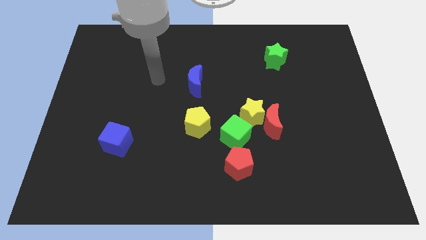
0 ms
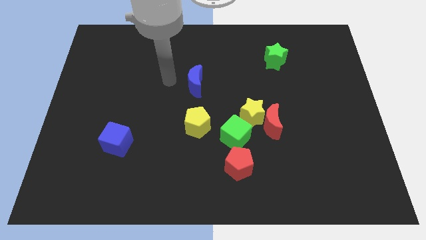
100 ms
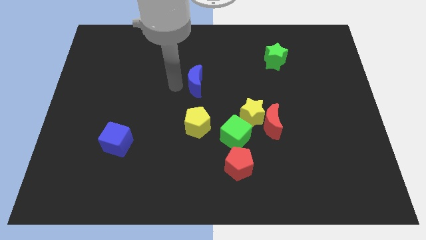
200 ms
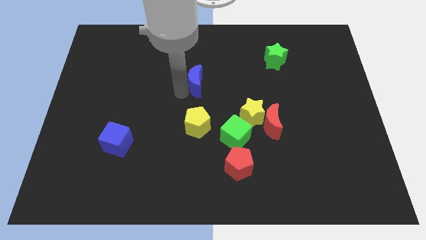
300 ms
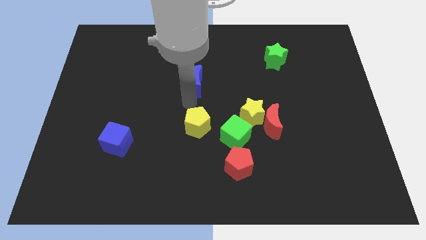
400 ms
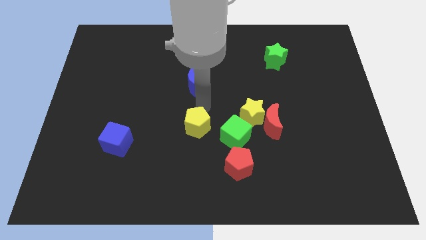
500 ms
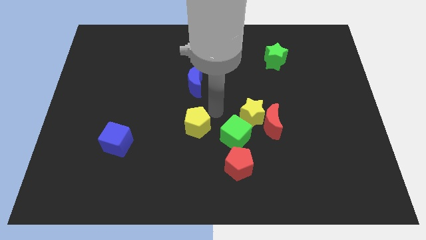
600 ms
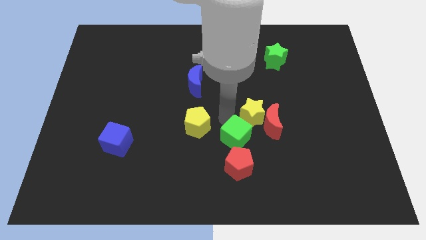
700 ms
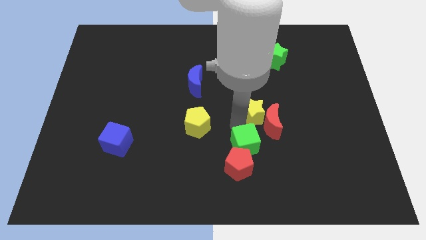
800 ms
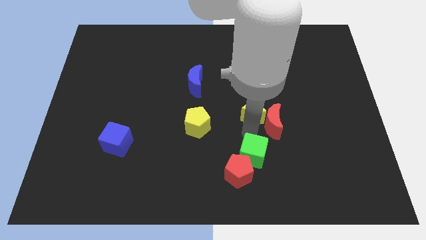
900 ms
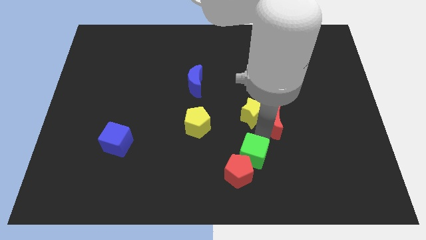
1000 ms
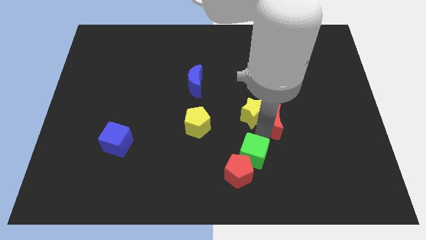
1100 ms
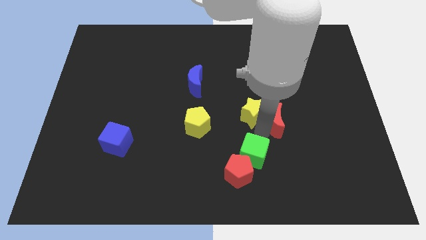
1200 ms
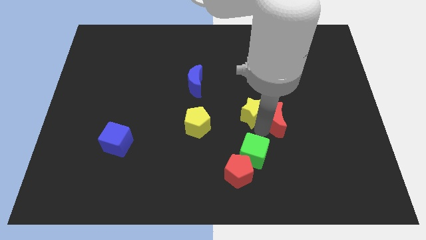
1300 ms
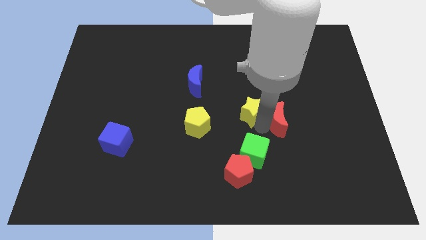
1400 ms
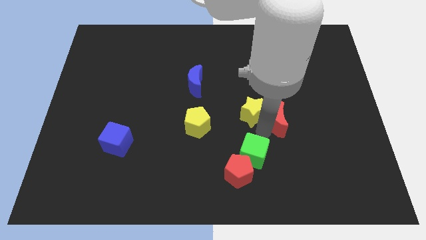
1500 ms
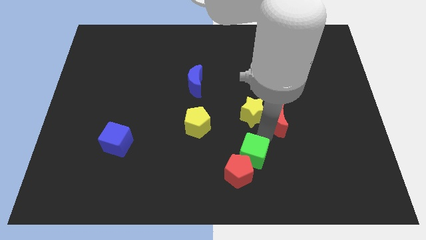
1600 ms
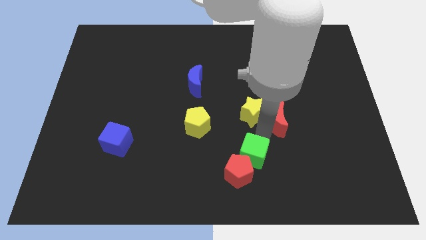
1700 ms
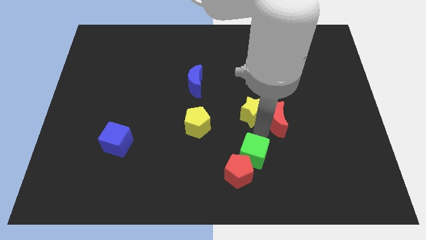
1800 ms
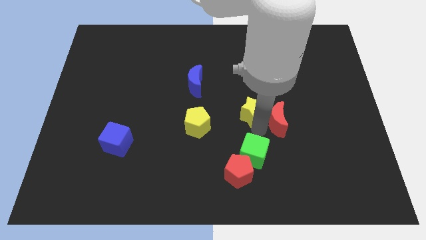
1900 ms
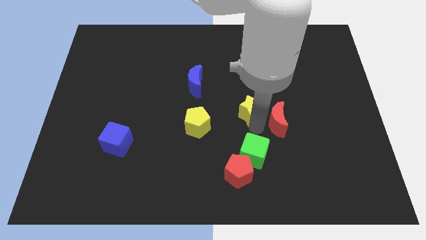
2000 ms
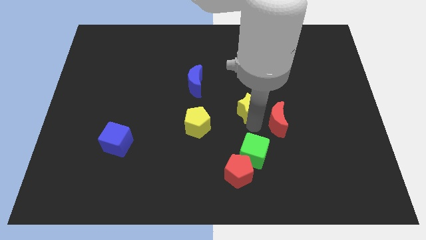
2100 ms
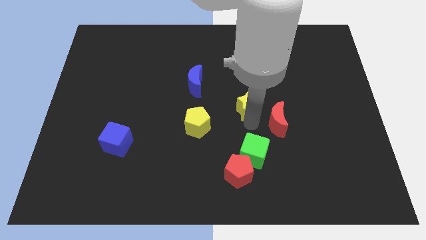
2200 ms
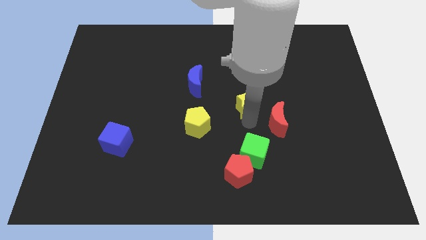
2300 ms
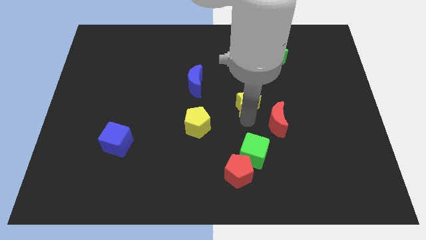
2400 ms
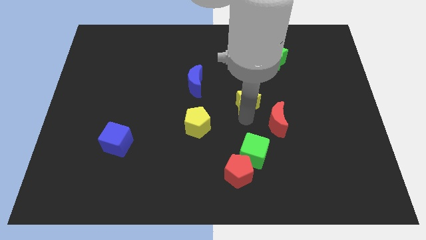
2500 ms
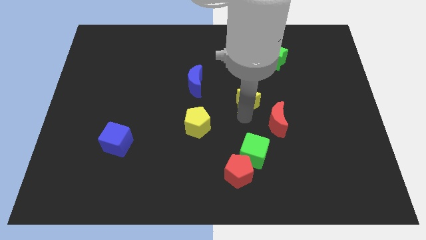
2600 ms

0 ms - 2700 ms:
move the yellow star away from the red moon and green cube

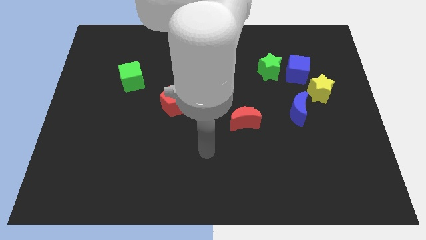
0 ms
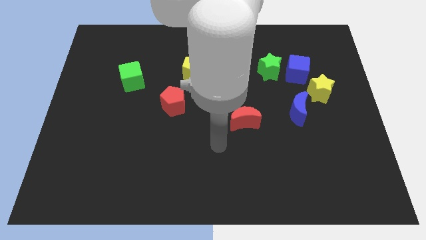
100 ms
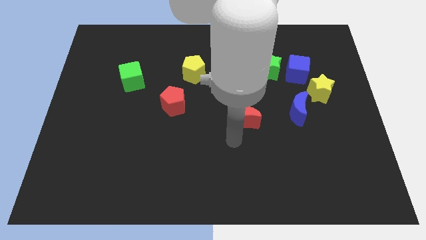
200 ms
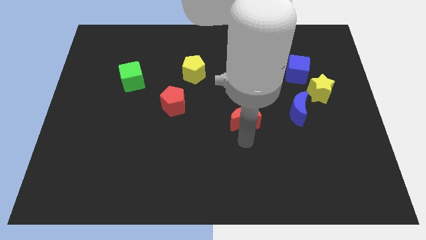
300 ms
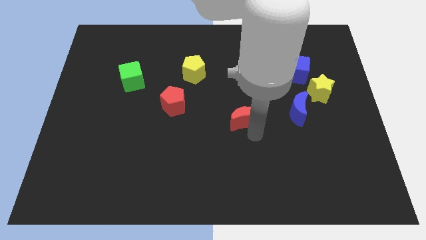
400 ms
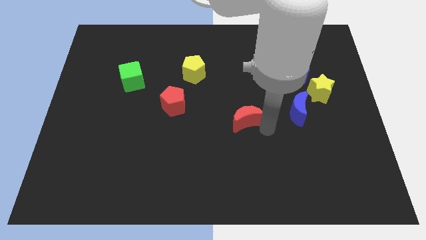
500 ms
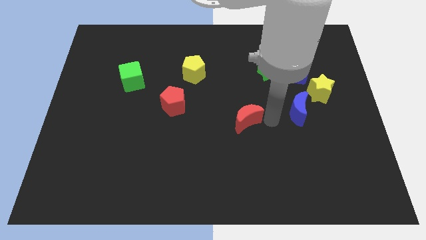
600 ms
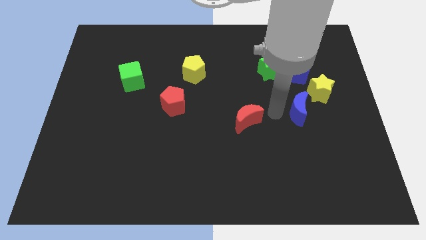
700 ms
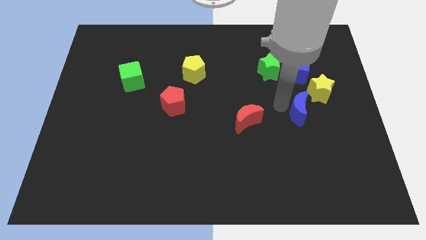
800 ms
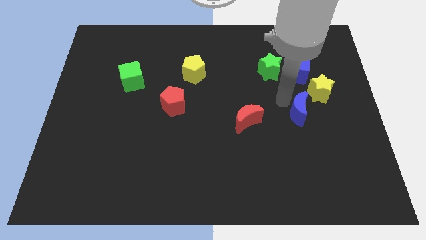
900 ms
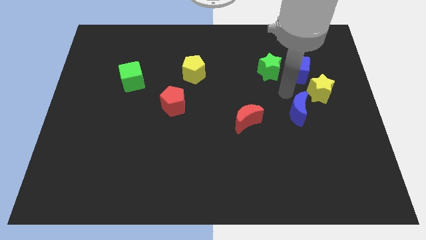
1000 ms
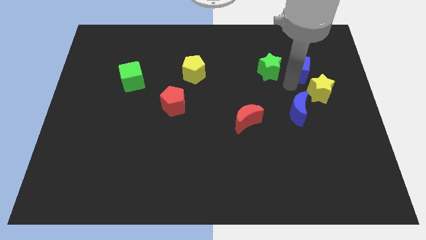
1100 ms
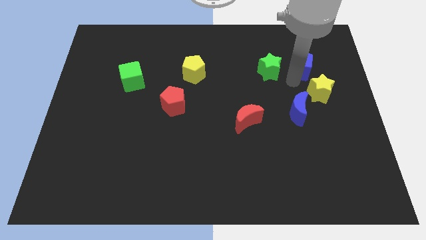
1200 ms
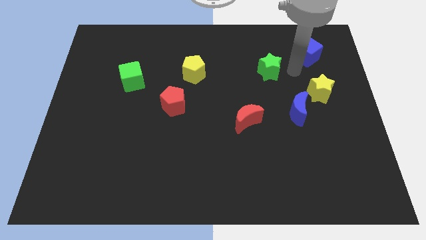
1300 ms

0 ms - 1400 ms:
separate the green star from the blue cube

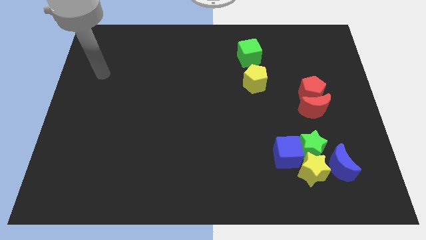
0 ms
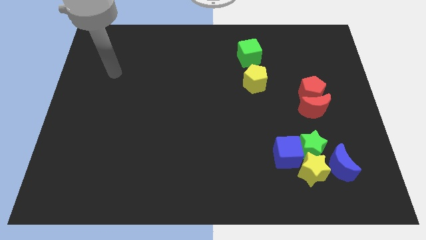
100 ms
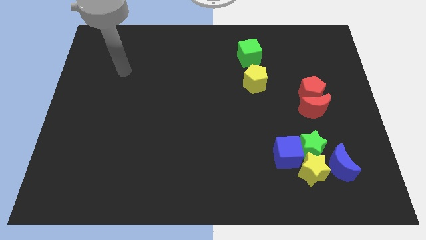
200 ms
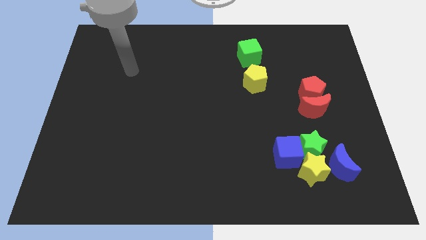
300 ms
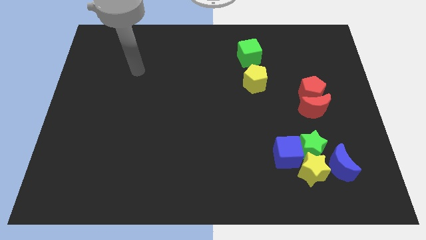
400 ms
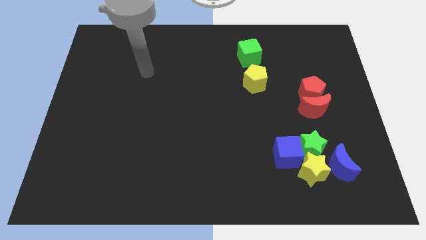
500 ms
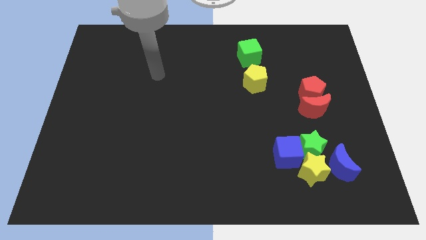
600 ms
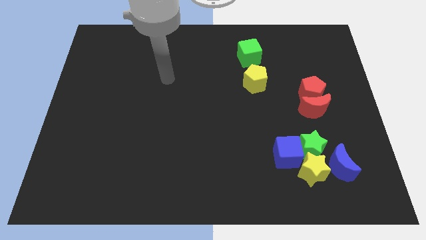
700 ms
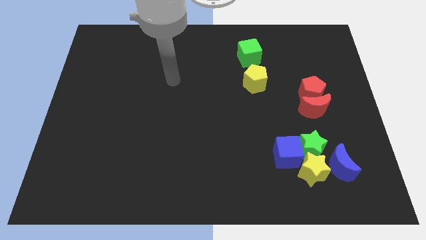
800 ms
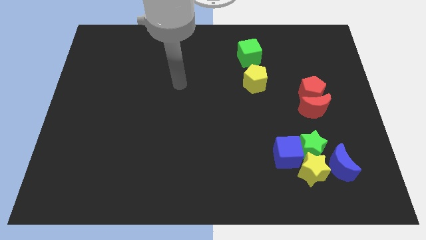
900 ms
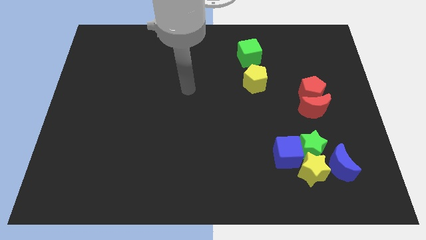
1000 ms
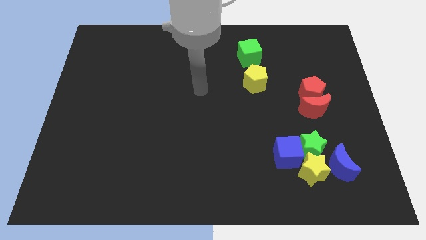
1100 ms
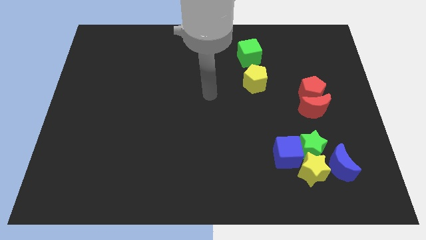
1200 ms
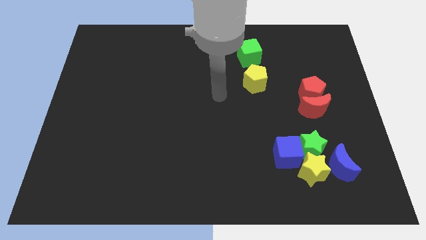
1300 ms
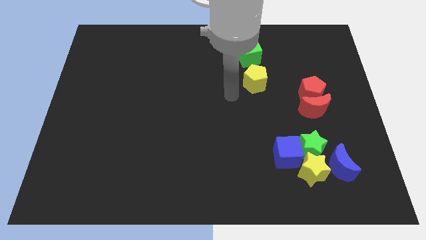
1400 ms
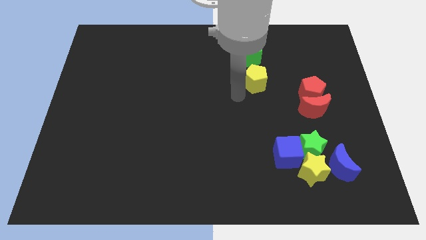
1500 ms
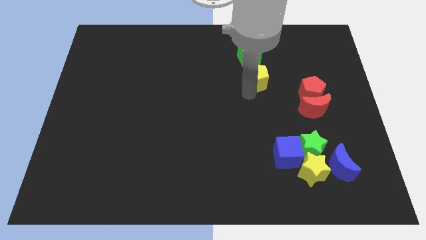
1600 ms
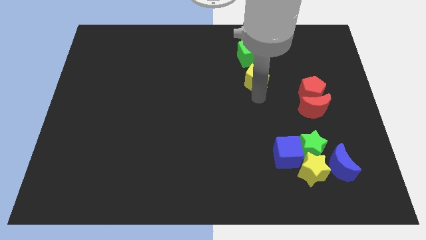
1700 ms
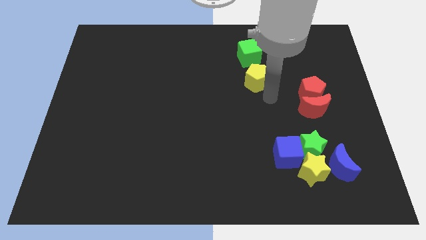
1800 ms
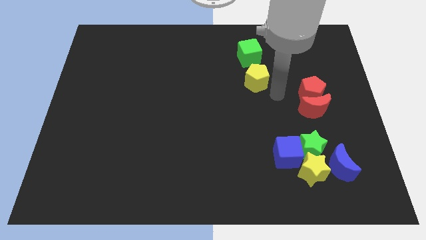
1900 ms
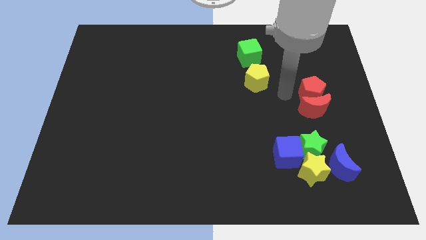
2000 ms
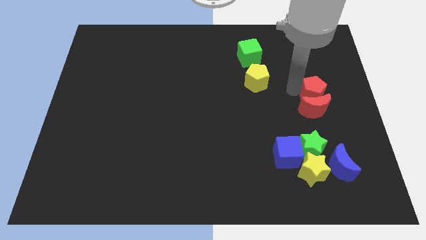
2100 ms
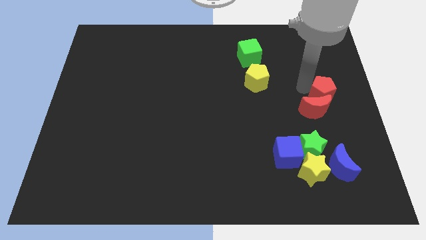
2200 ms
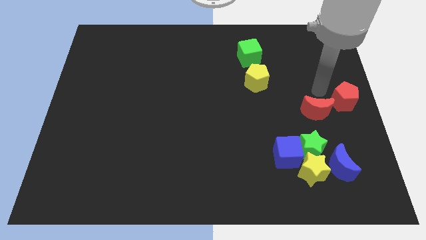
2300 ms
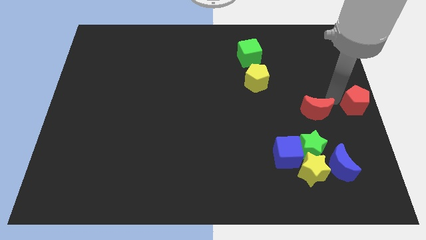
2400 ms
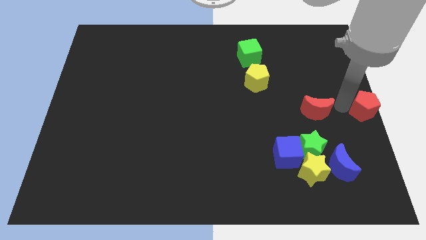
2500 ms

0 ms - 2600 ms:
separate the red moon from the red pentagon

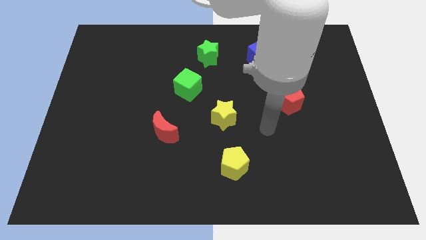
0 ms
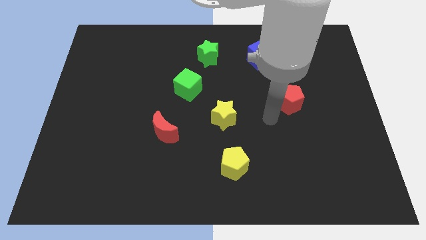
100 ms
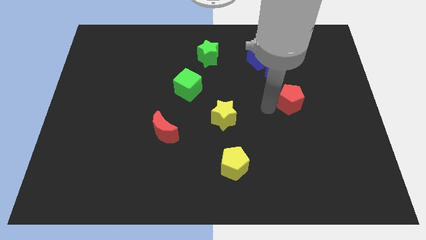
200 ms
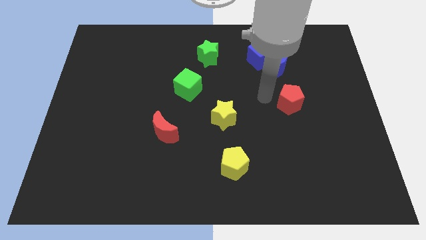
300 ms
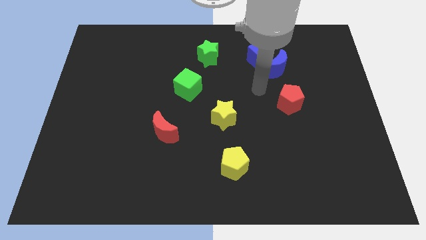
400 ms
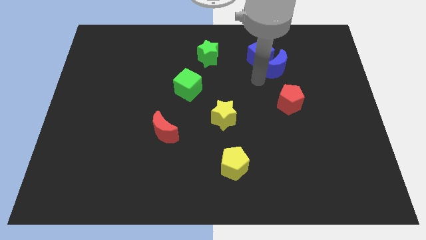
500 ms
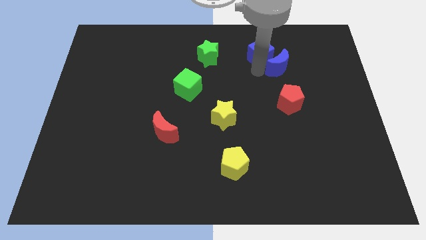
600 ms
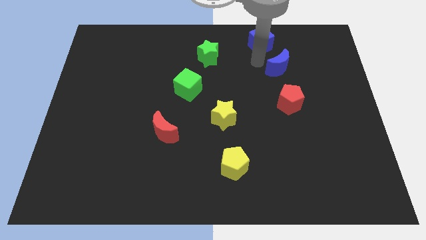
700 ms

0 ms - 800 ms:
move the blue moon away from the blue cube

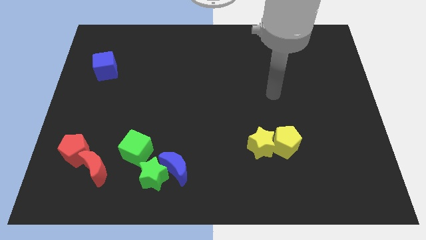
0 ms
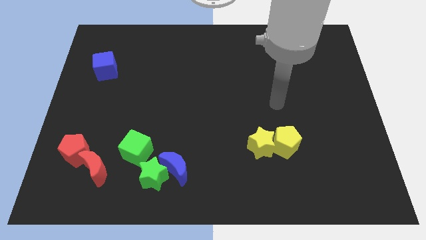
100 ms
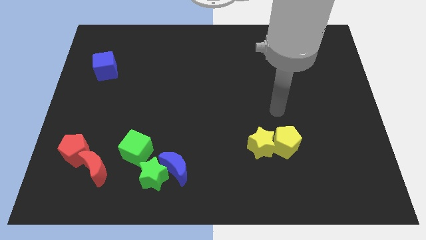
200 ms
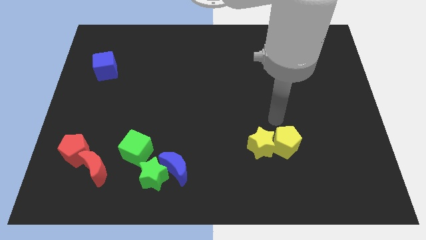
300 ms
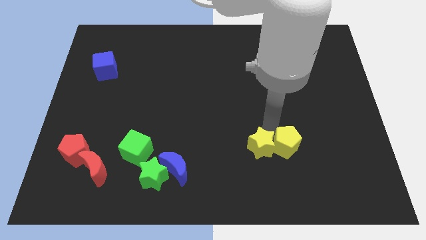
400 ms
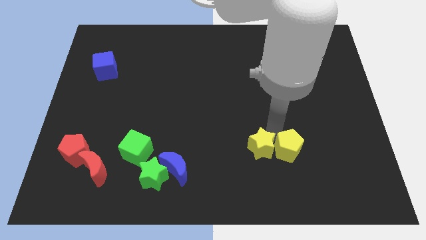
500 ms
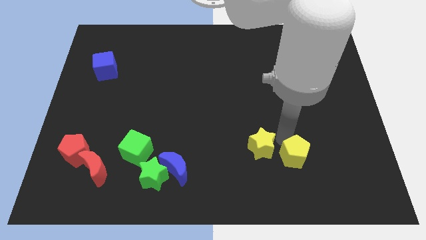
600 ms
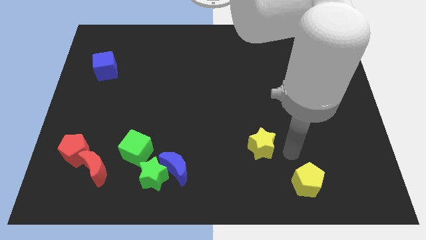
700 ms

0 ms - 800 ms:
pull the yellow star apart from the yellow pentagon

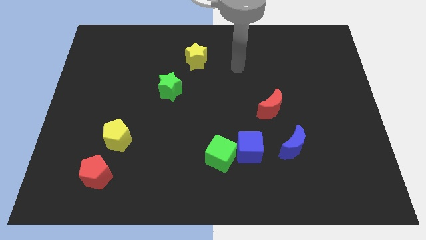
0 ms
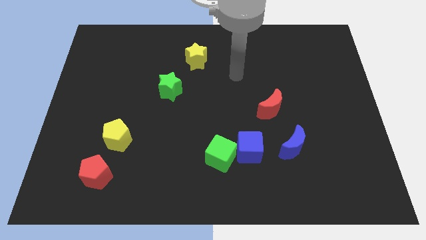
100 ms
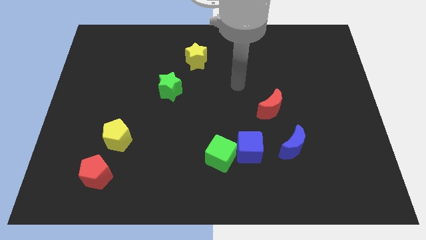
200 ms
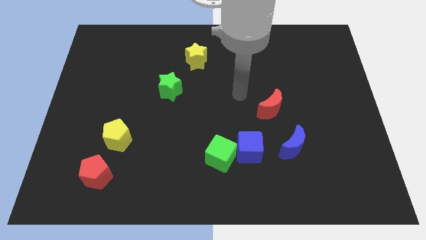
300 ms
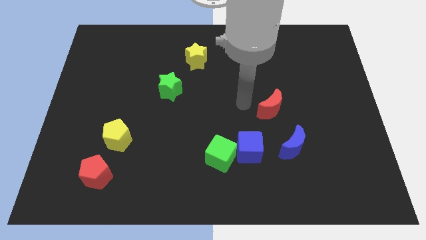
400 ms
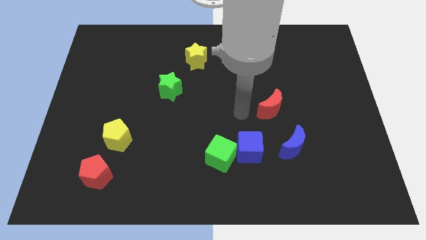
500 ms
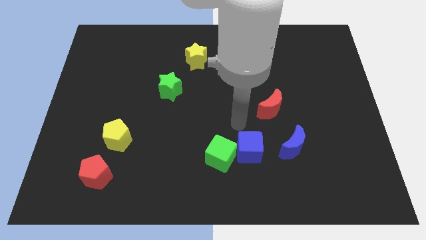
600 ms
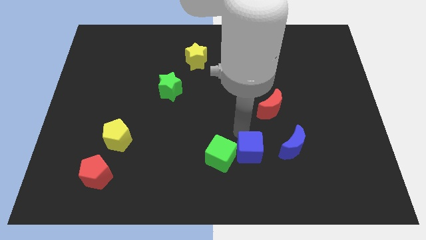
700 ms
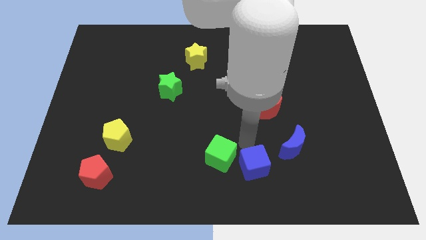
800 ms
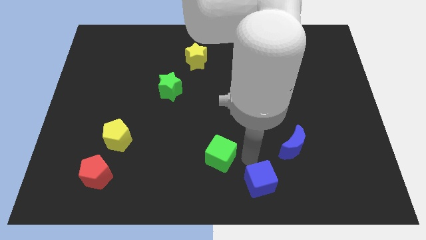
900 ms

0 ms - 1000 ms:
pull the green cube apart from the blue cube
